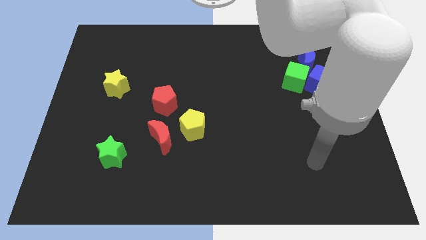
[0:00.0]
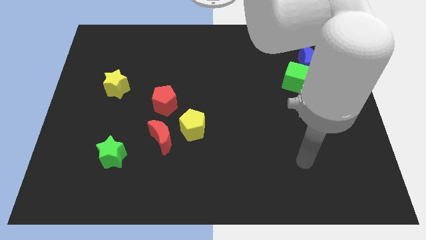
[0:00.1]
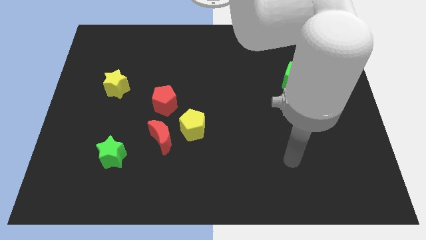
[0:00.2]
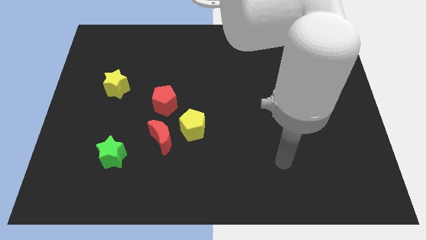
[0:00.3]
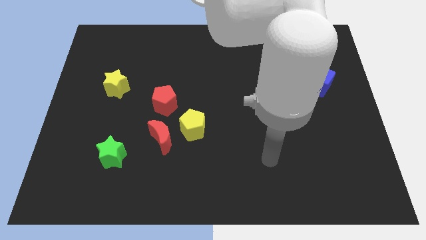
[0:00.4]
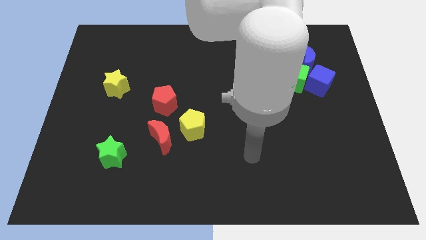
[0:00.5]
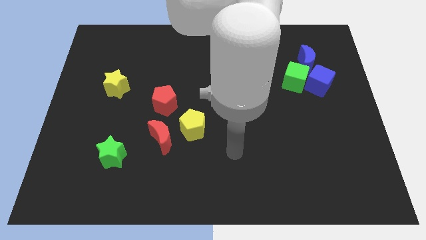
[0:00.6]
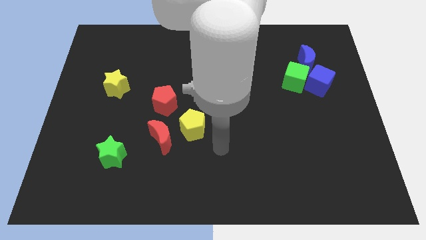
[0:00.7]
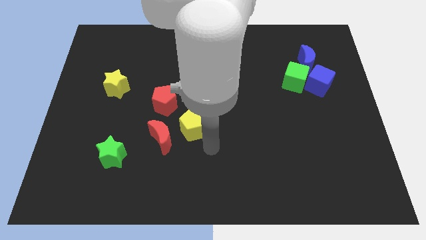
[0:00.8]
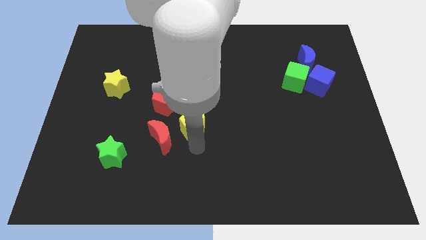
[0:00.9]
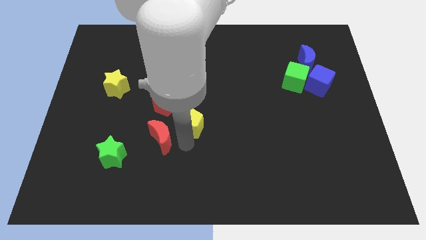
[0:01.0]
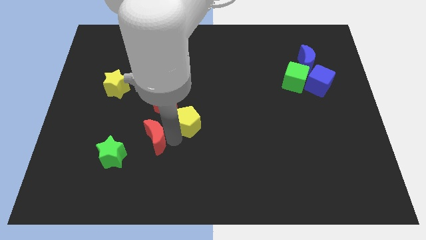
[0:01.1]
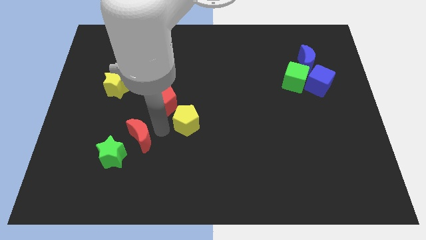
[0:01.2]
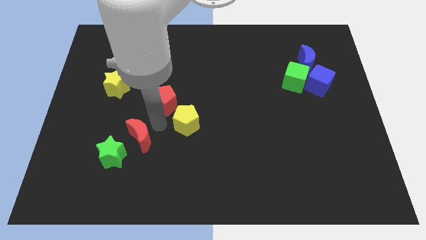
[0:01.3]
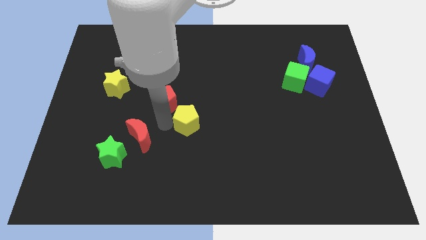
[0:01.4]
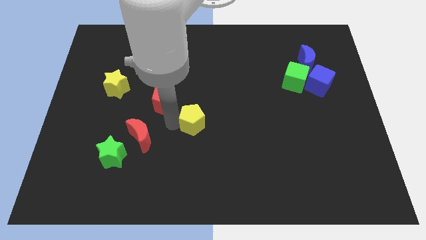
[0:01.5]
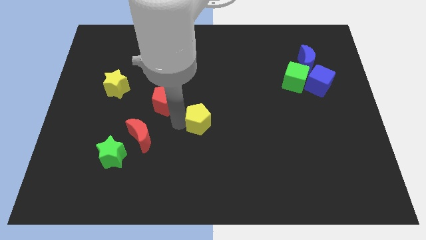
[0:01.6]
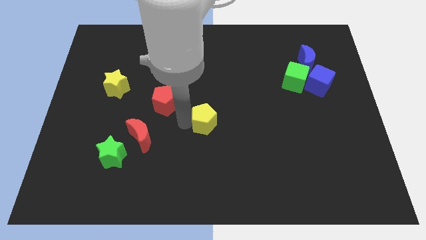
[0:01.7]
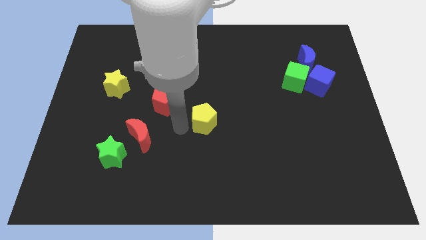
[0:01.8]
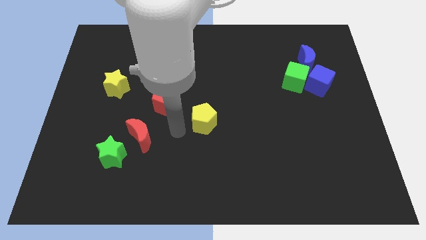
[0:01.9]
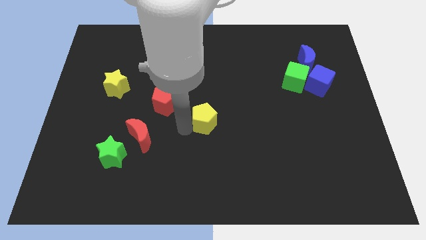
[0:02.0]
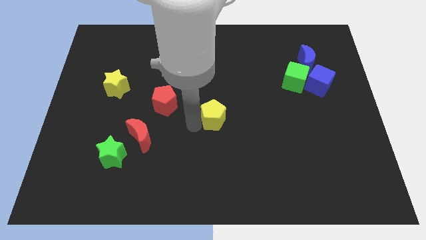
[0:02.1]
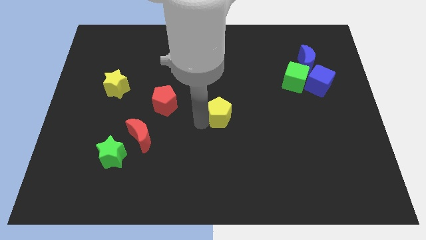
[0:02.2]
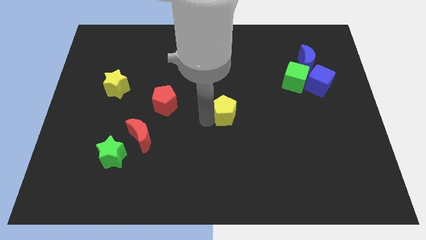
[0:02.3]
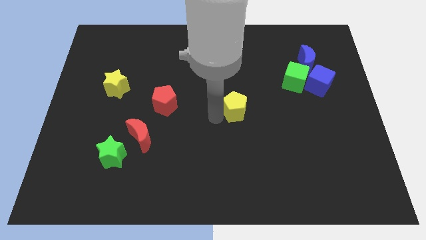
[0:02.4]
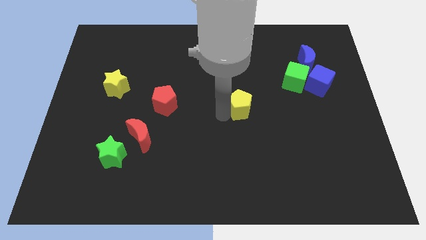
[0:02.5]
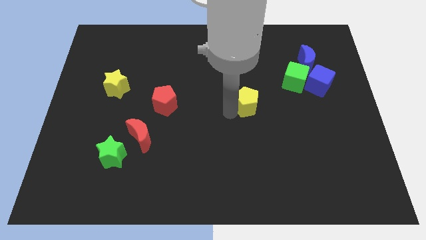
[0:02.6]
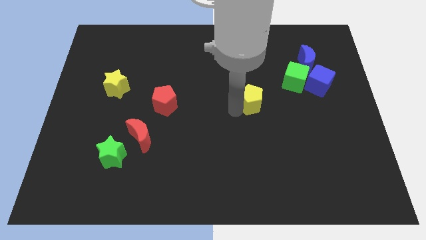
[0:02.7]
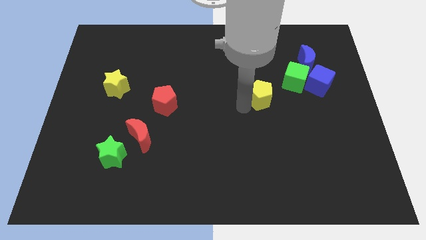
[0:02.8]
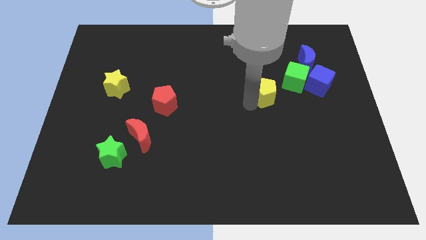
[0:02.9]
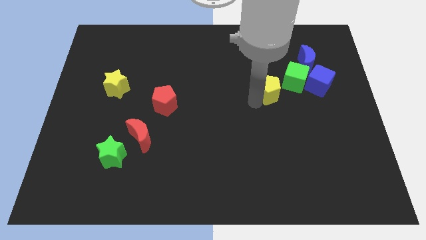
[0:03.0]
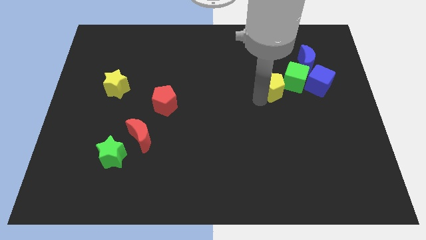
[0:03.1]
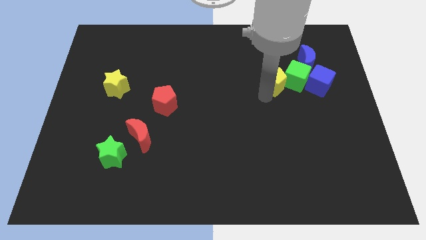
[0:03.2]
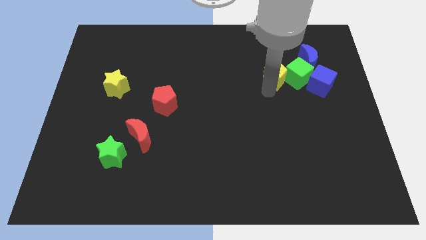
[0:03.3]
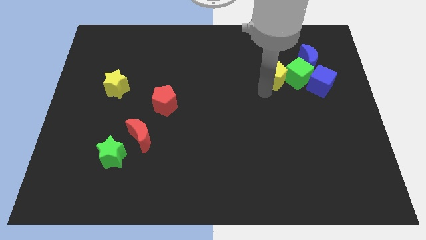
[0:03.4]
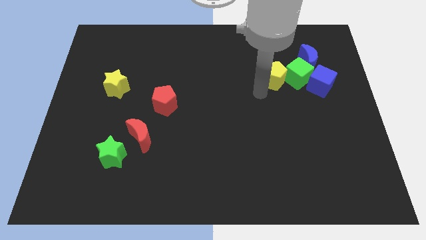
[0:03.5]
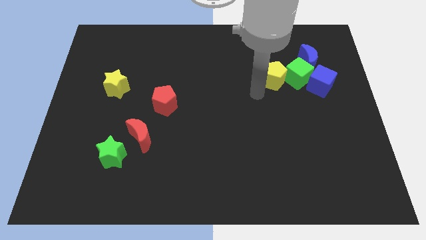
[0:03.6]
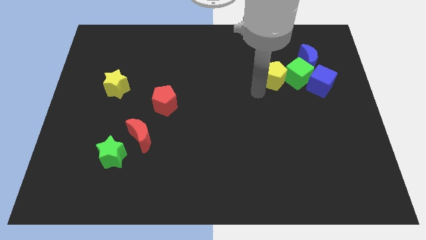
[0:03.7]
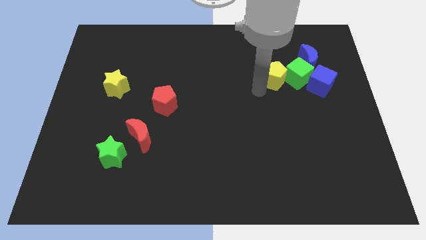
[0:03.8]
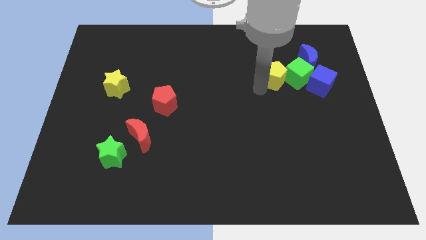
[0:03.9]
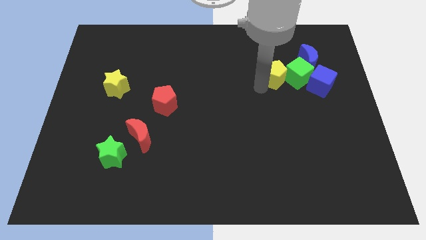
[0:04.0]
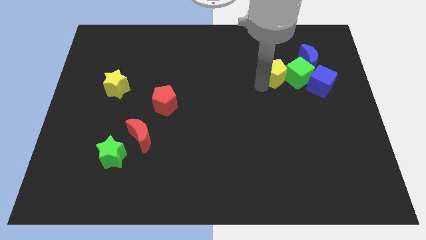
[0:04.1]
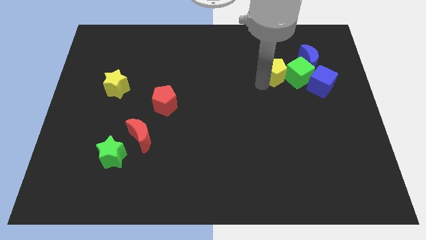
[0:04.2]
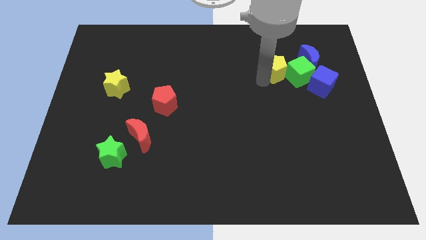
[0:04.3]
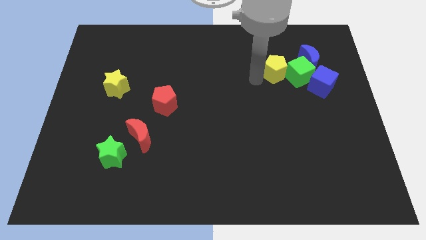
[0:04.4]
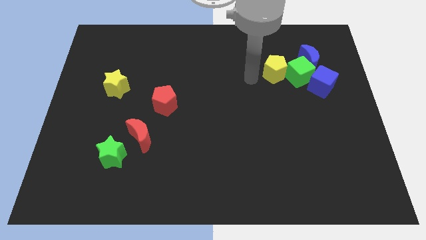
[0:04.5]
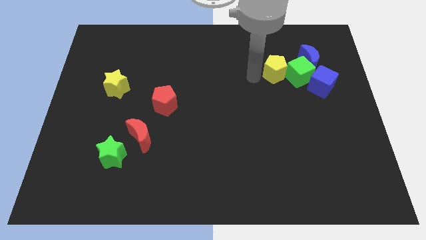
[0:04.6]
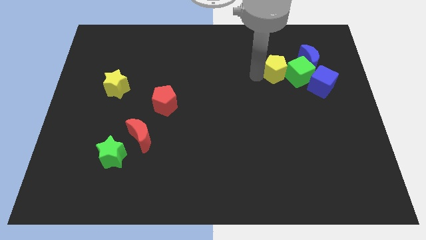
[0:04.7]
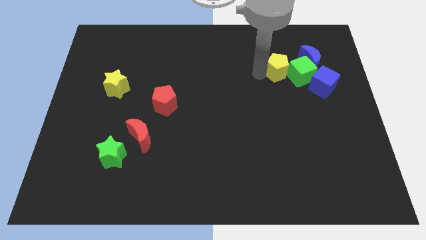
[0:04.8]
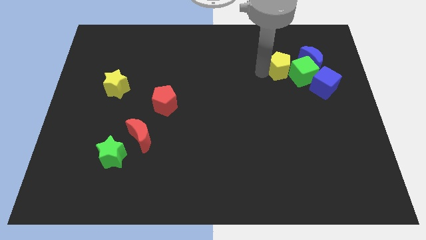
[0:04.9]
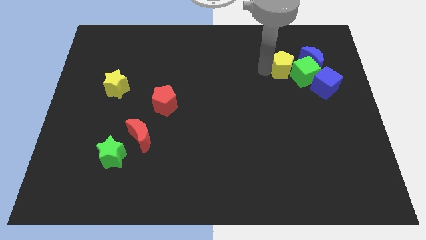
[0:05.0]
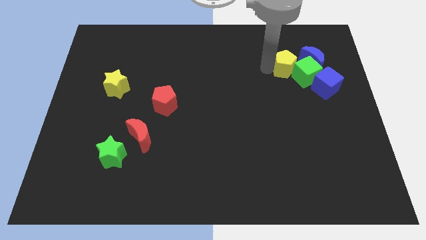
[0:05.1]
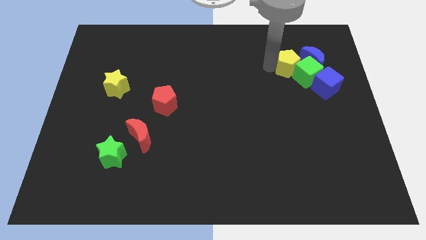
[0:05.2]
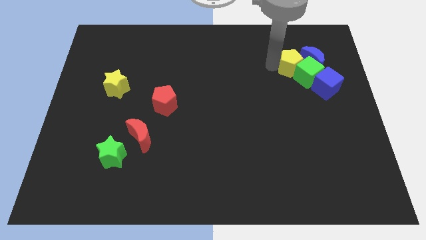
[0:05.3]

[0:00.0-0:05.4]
push the yellow pentagon close to the blue moon

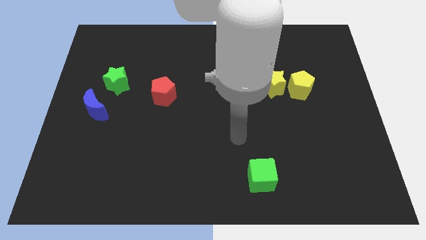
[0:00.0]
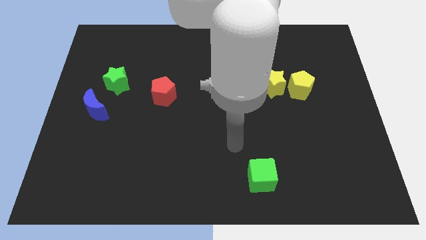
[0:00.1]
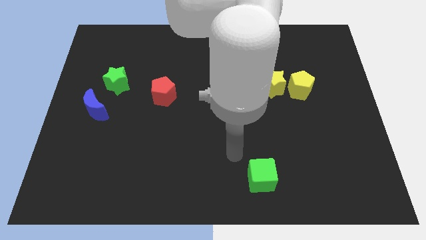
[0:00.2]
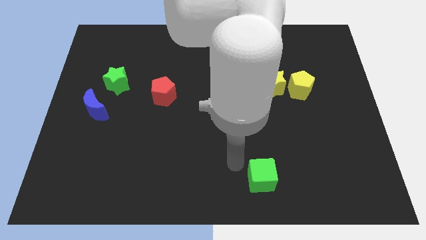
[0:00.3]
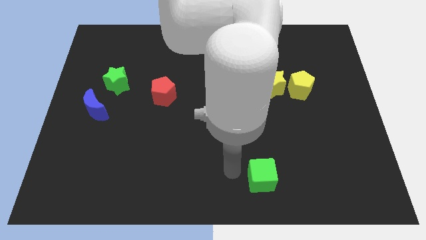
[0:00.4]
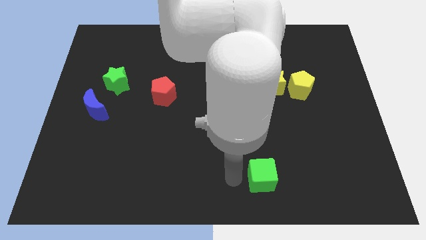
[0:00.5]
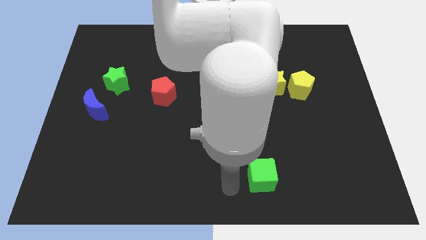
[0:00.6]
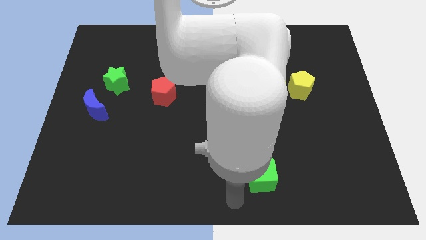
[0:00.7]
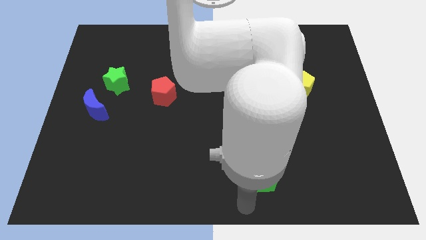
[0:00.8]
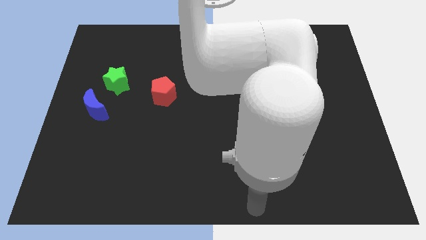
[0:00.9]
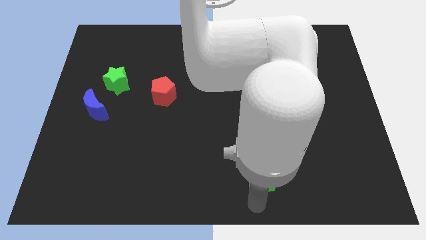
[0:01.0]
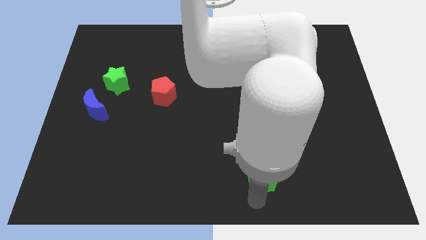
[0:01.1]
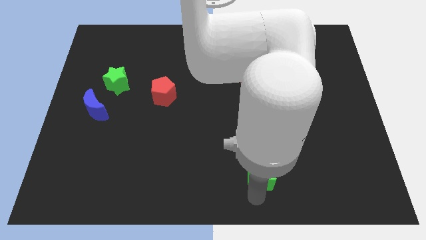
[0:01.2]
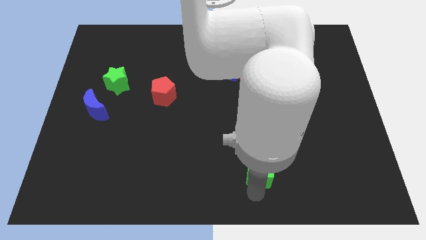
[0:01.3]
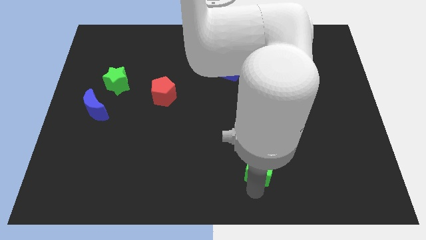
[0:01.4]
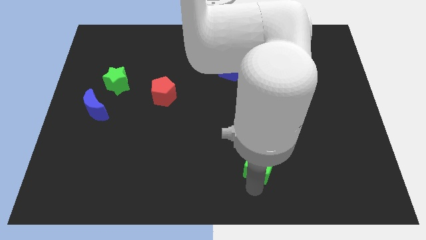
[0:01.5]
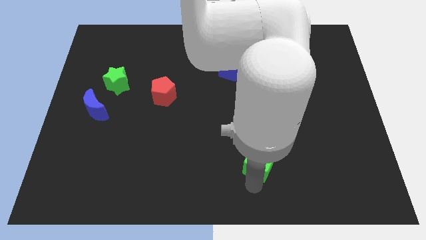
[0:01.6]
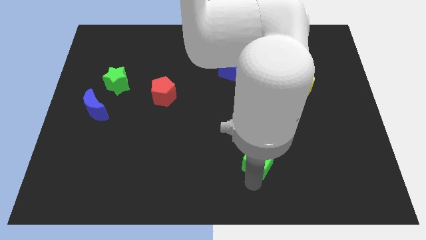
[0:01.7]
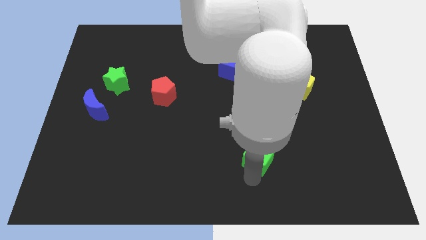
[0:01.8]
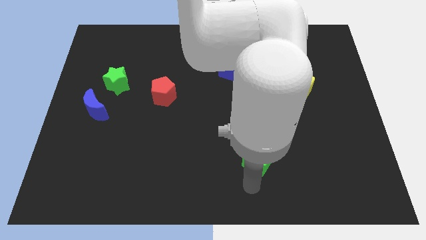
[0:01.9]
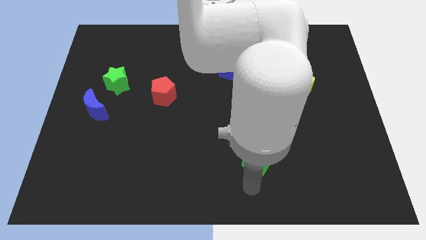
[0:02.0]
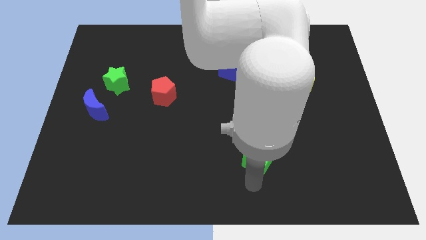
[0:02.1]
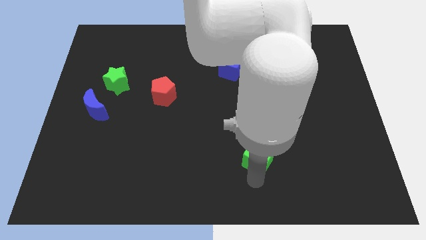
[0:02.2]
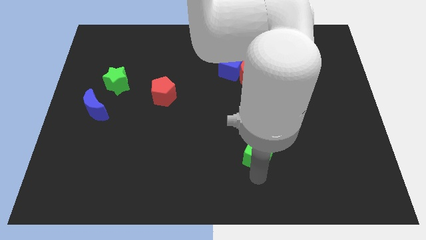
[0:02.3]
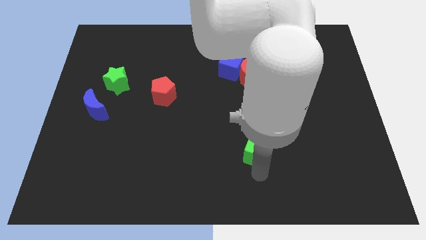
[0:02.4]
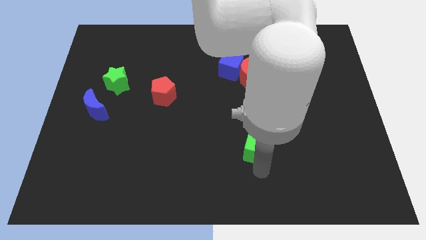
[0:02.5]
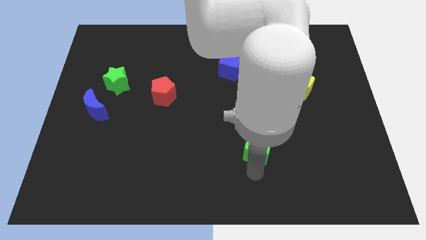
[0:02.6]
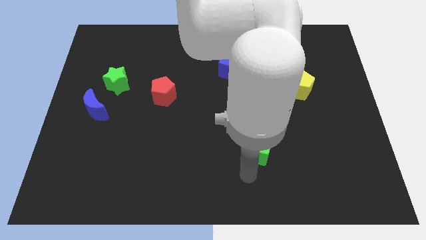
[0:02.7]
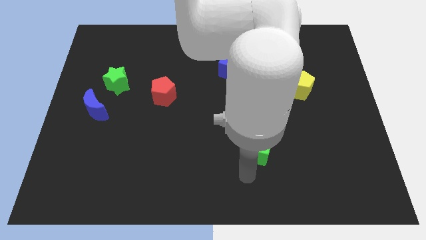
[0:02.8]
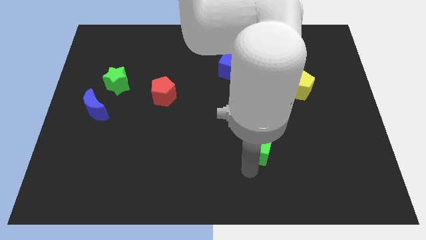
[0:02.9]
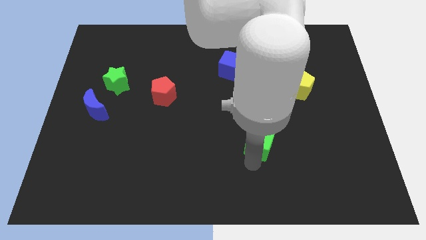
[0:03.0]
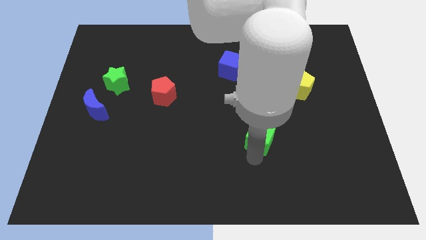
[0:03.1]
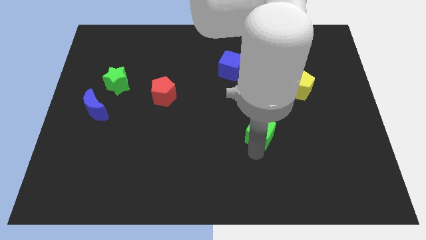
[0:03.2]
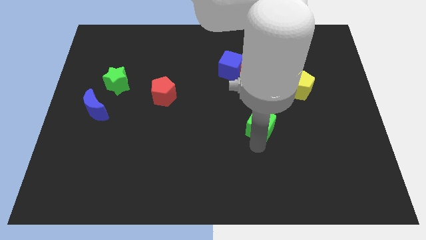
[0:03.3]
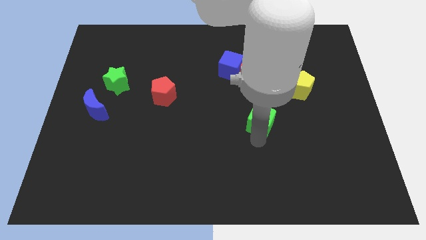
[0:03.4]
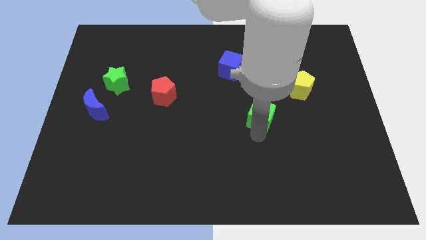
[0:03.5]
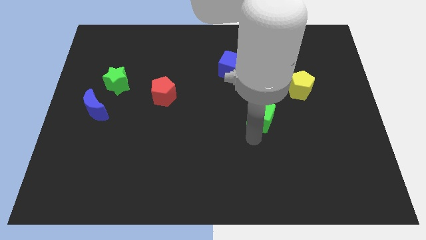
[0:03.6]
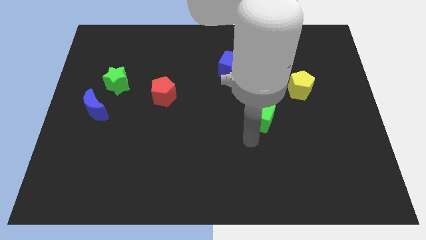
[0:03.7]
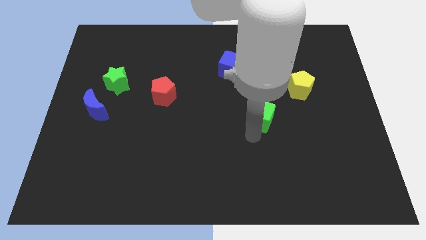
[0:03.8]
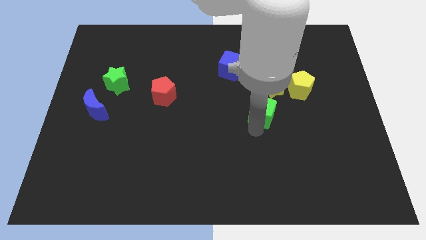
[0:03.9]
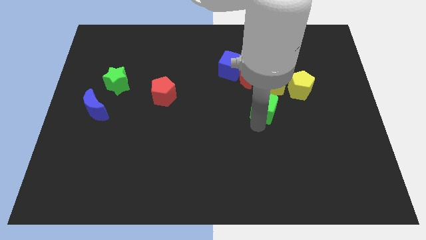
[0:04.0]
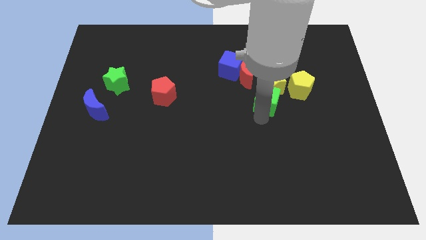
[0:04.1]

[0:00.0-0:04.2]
put the green cube next to the yellow star
